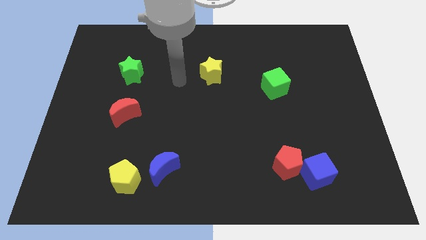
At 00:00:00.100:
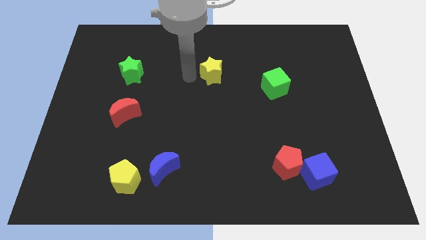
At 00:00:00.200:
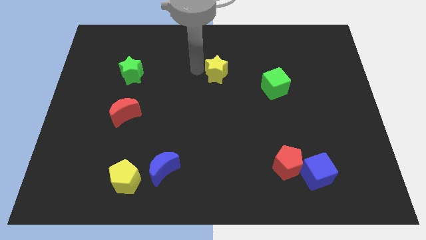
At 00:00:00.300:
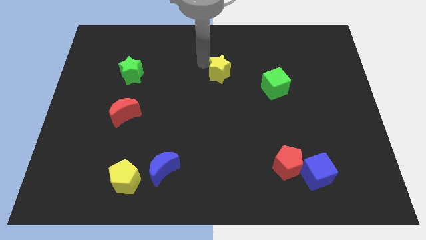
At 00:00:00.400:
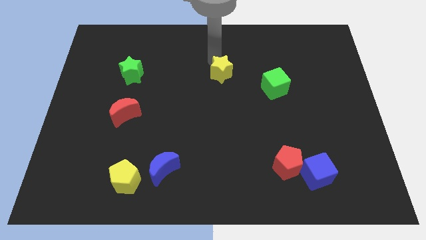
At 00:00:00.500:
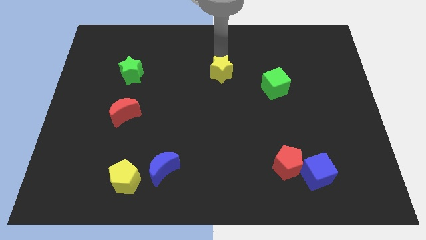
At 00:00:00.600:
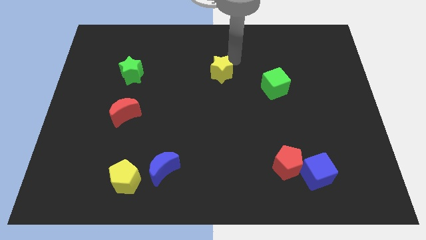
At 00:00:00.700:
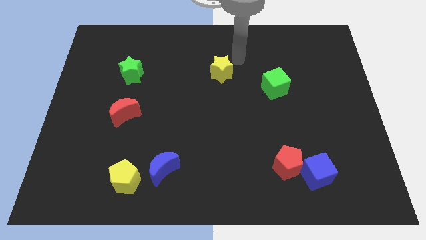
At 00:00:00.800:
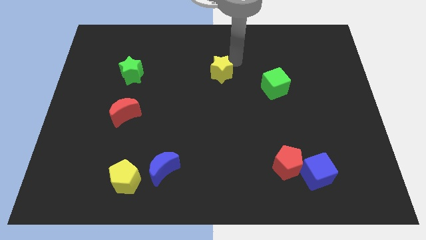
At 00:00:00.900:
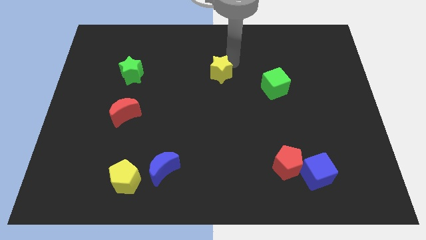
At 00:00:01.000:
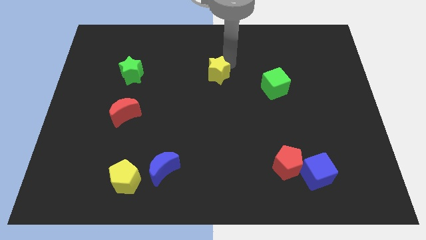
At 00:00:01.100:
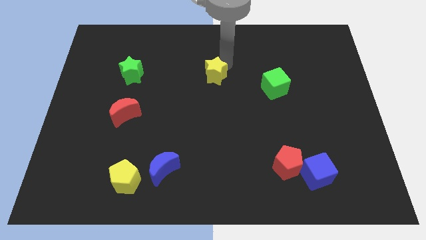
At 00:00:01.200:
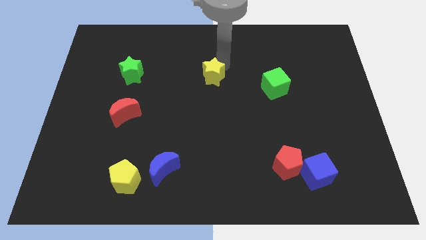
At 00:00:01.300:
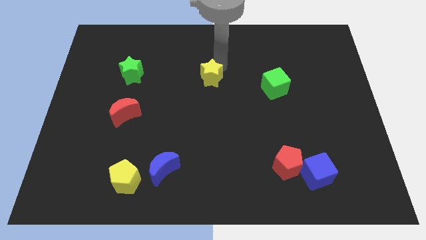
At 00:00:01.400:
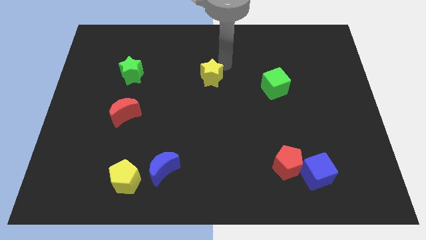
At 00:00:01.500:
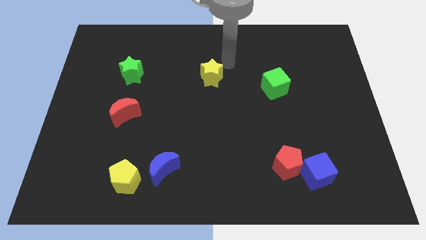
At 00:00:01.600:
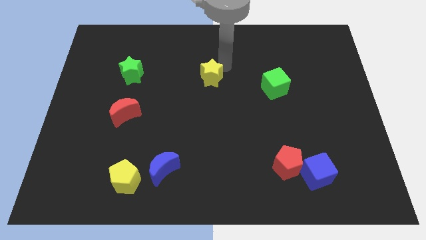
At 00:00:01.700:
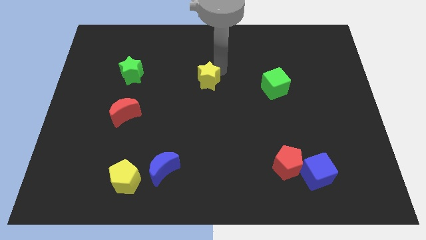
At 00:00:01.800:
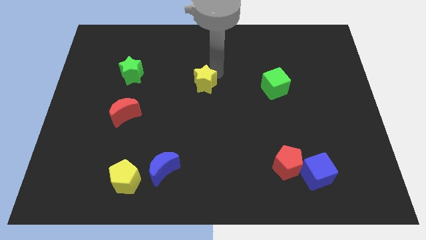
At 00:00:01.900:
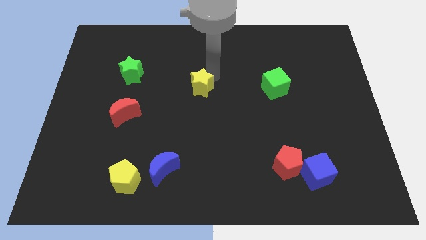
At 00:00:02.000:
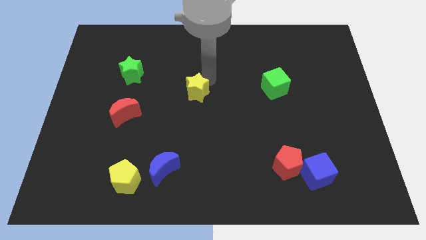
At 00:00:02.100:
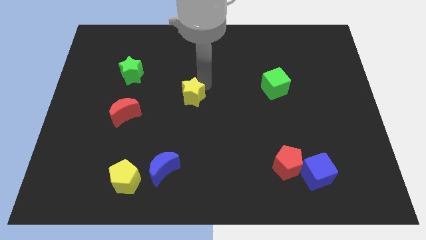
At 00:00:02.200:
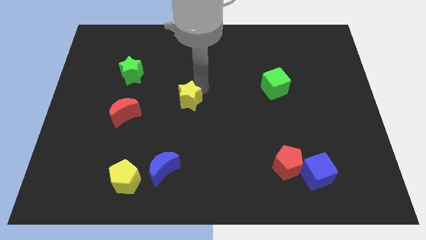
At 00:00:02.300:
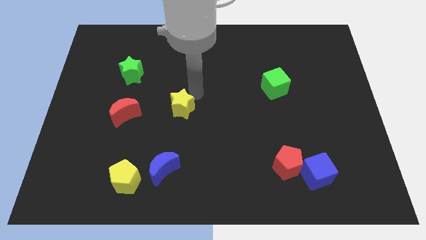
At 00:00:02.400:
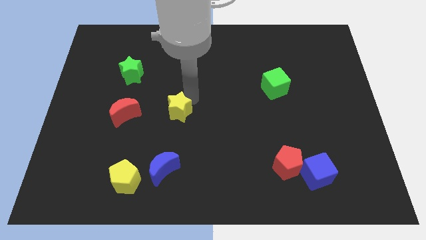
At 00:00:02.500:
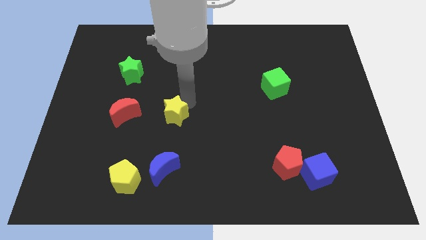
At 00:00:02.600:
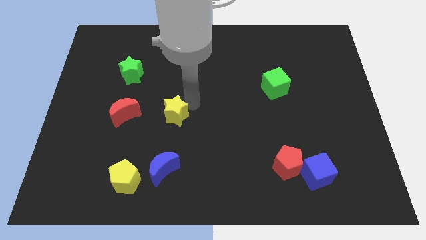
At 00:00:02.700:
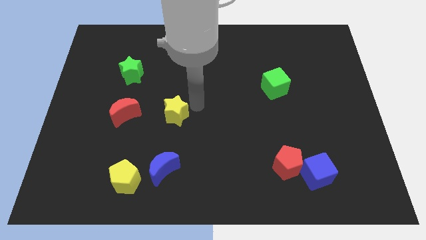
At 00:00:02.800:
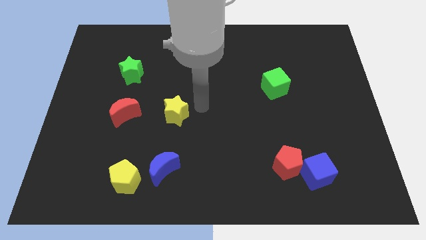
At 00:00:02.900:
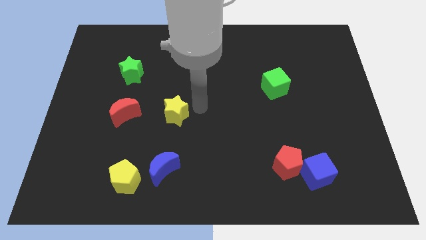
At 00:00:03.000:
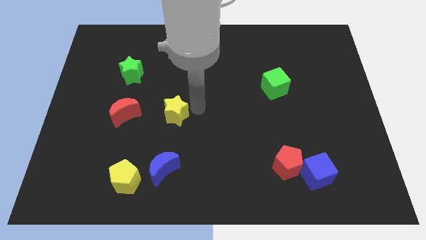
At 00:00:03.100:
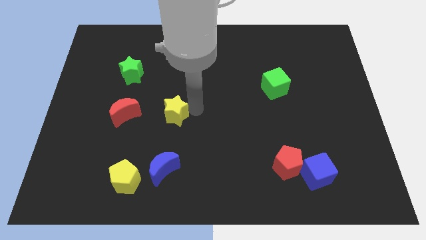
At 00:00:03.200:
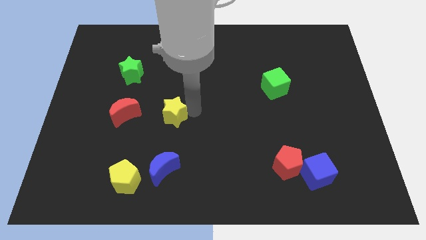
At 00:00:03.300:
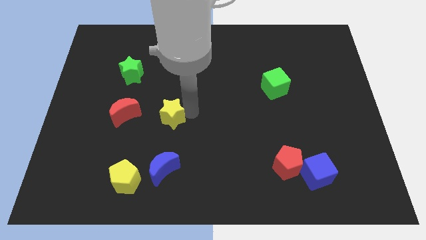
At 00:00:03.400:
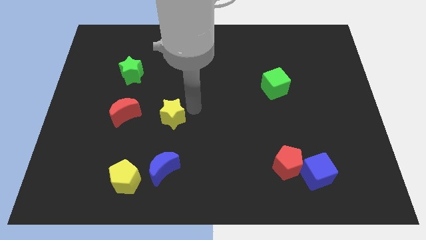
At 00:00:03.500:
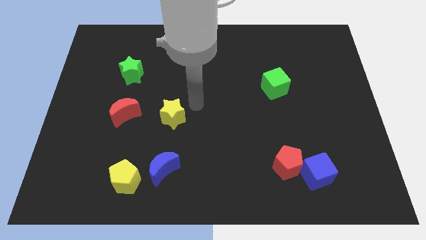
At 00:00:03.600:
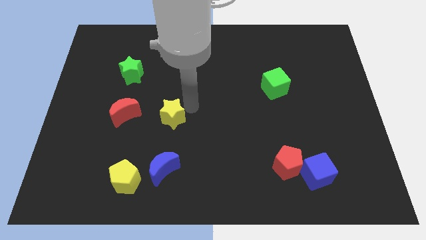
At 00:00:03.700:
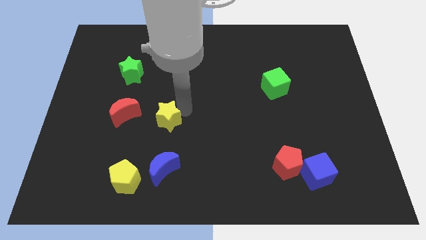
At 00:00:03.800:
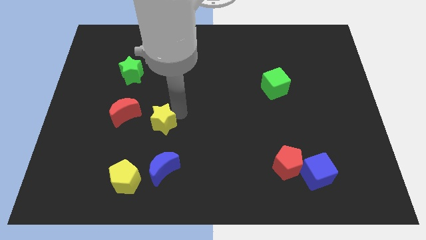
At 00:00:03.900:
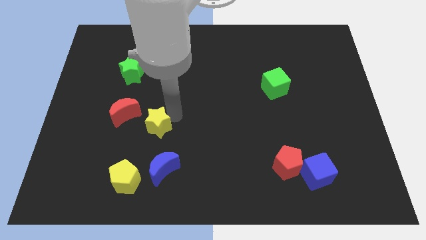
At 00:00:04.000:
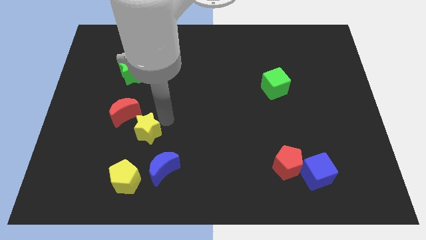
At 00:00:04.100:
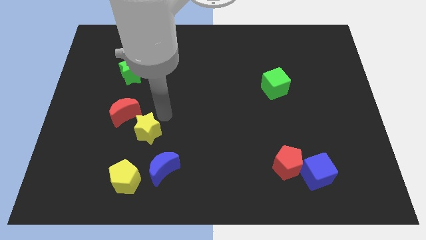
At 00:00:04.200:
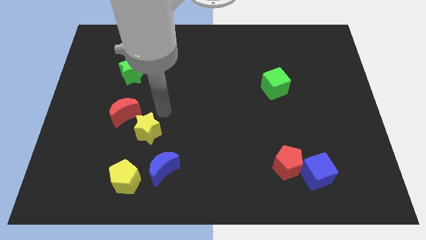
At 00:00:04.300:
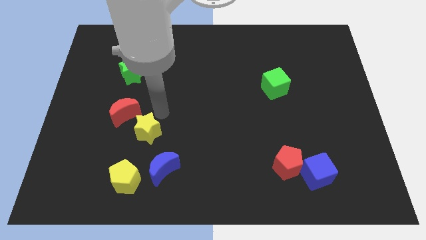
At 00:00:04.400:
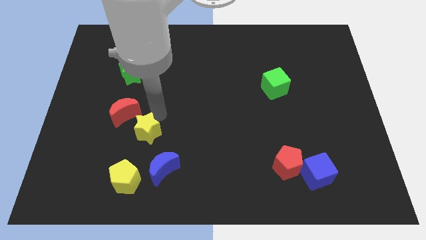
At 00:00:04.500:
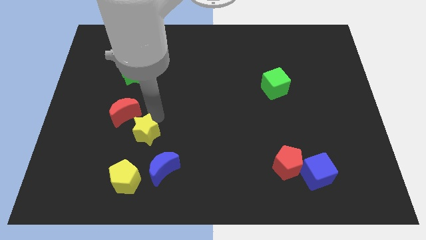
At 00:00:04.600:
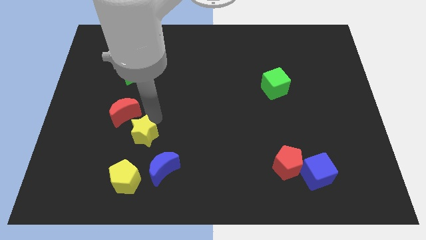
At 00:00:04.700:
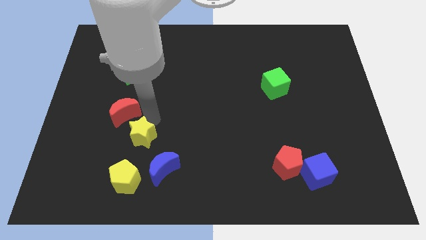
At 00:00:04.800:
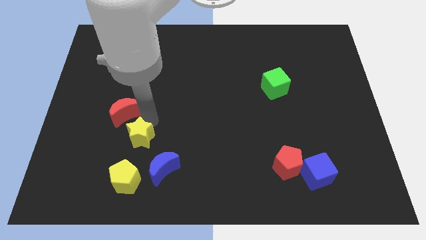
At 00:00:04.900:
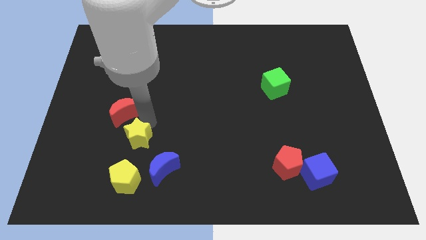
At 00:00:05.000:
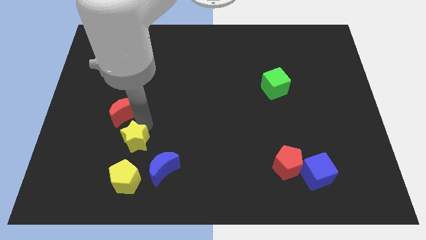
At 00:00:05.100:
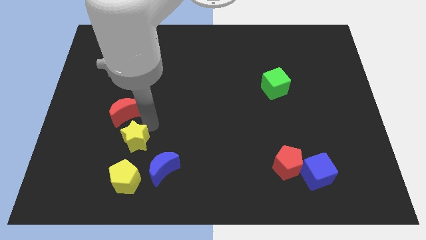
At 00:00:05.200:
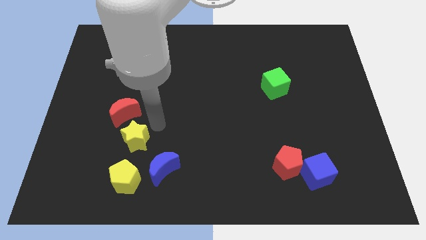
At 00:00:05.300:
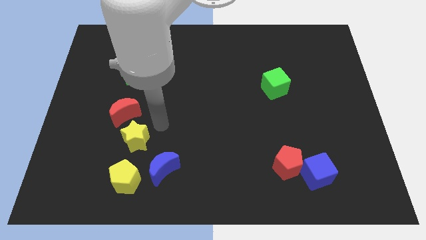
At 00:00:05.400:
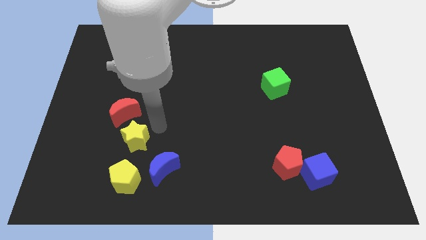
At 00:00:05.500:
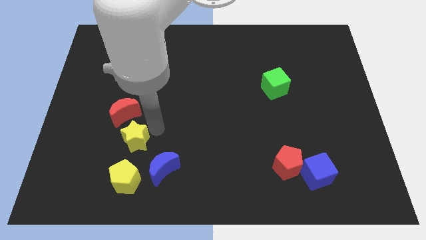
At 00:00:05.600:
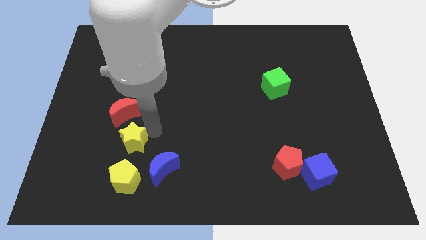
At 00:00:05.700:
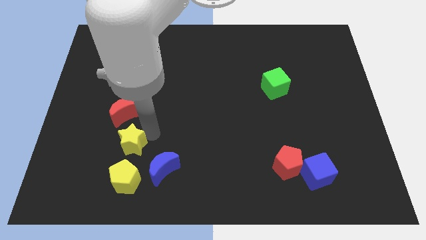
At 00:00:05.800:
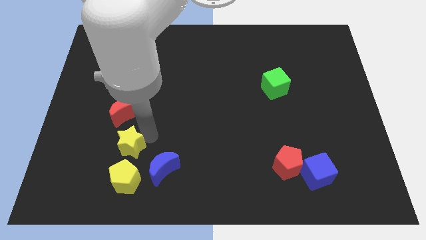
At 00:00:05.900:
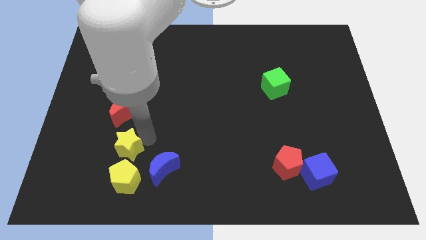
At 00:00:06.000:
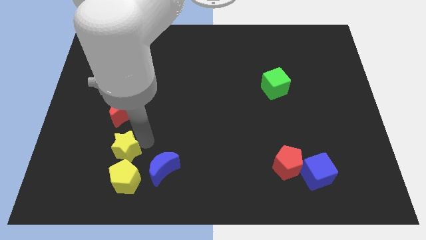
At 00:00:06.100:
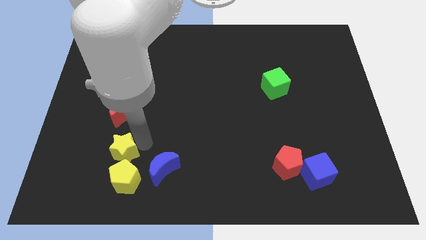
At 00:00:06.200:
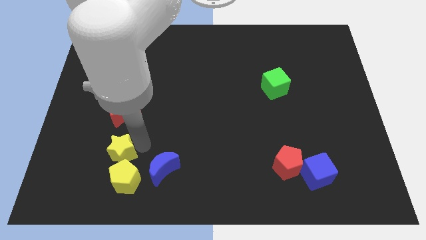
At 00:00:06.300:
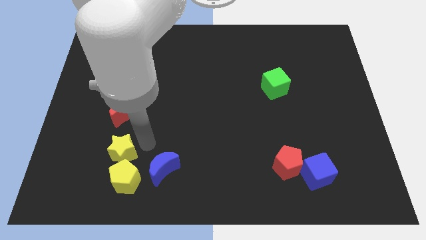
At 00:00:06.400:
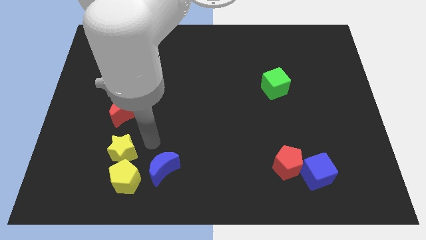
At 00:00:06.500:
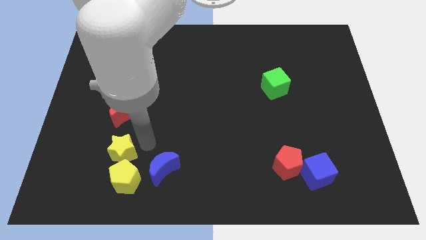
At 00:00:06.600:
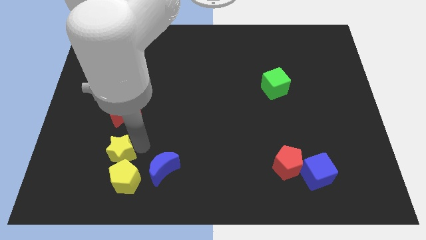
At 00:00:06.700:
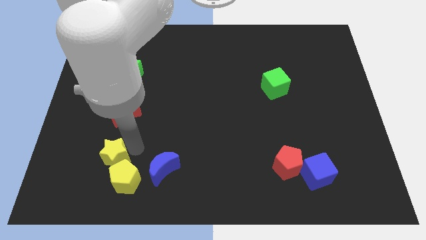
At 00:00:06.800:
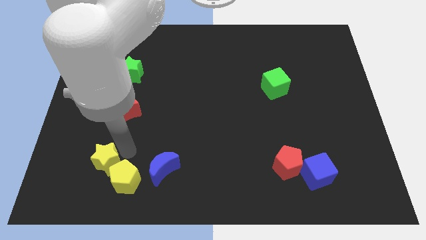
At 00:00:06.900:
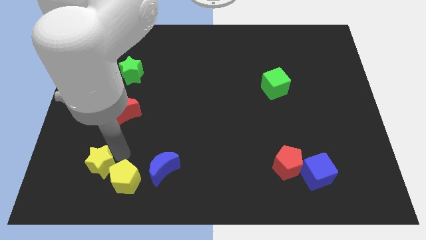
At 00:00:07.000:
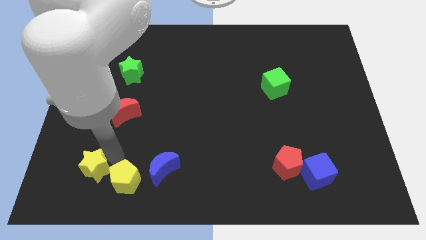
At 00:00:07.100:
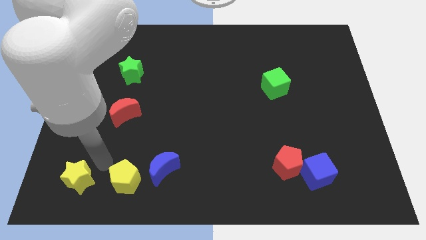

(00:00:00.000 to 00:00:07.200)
put the yellow star to the bottom left
